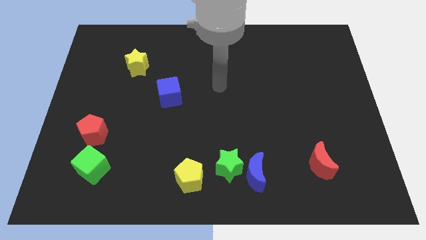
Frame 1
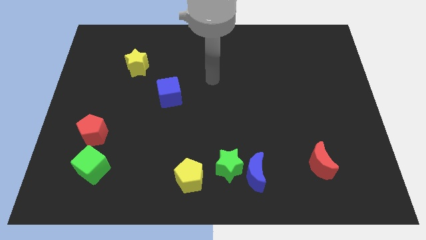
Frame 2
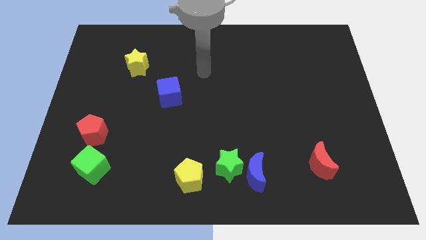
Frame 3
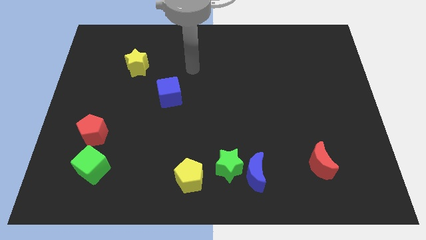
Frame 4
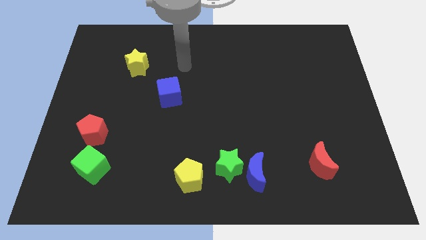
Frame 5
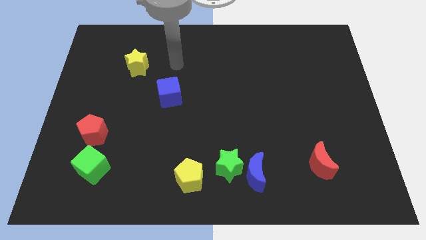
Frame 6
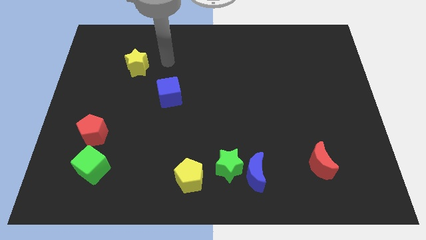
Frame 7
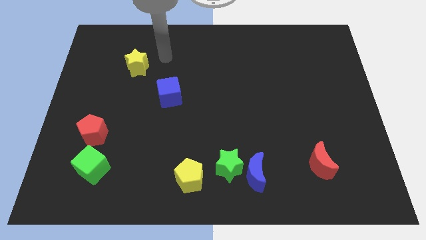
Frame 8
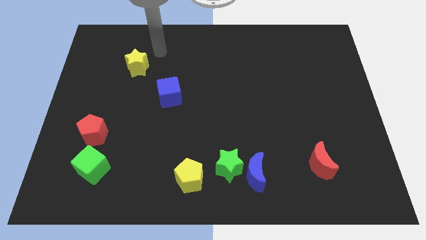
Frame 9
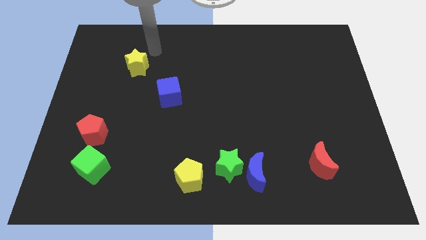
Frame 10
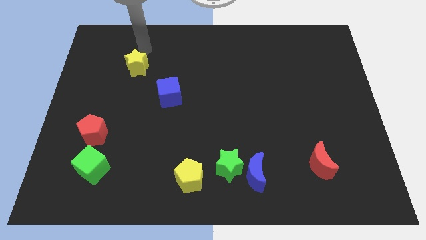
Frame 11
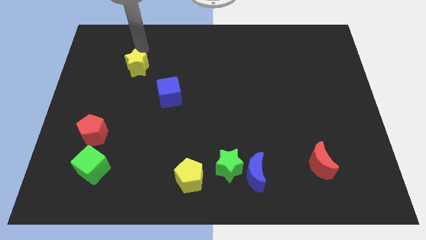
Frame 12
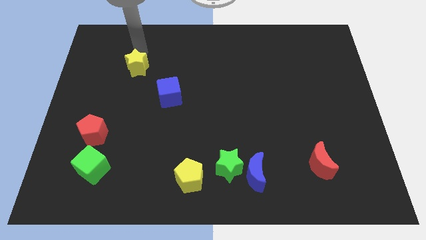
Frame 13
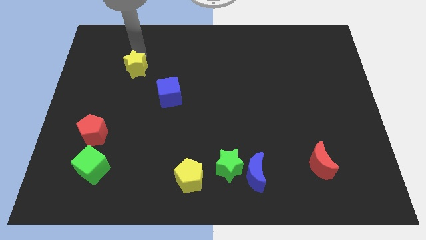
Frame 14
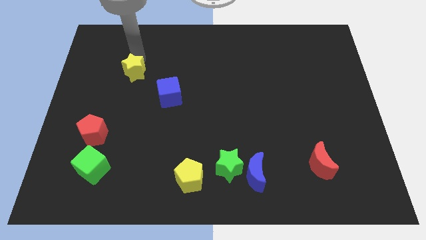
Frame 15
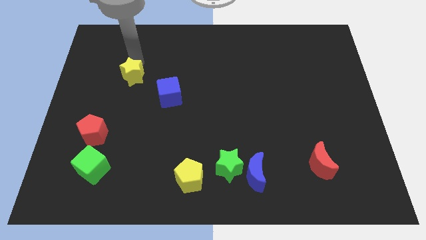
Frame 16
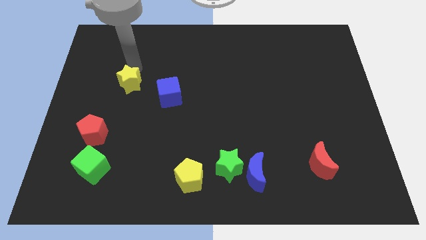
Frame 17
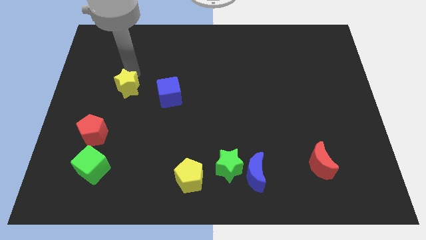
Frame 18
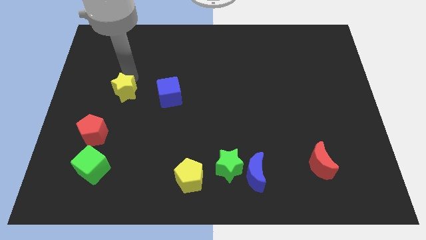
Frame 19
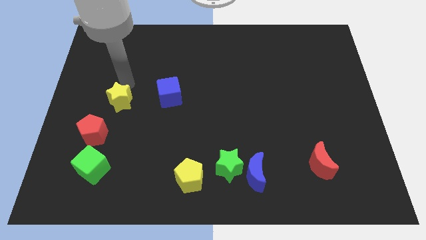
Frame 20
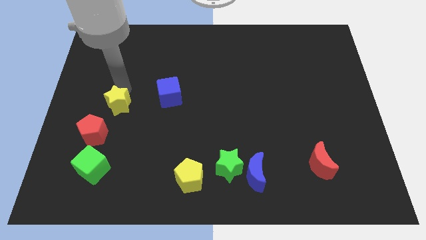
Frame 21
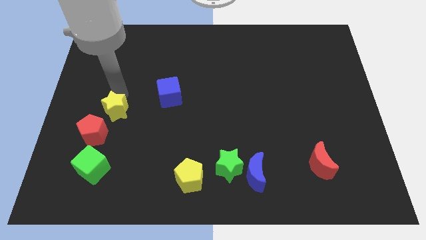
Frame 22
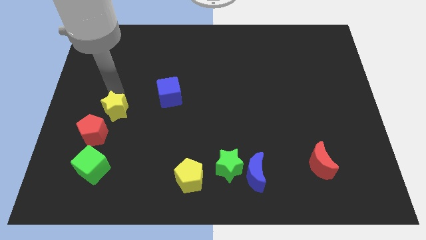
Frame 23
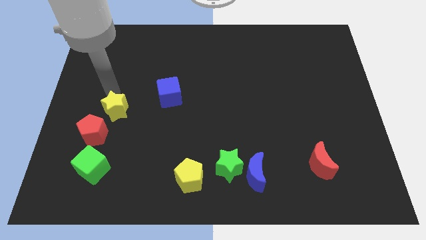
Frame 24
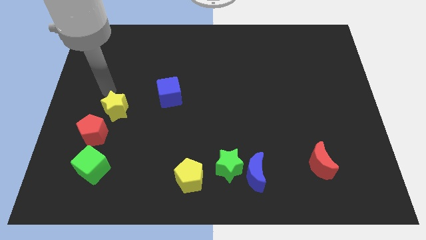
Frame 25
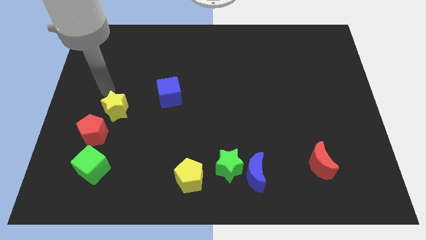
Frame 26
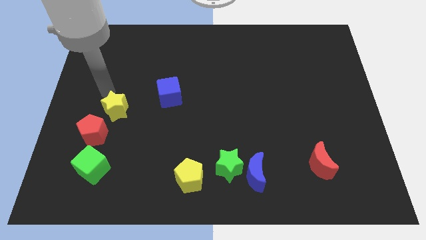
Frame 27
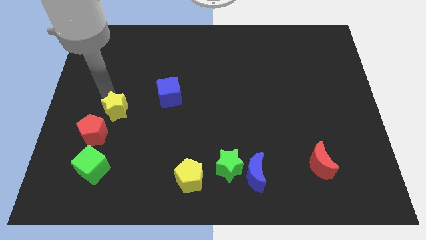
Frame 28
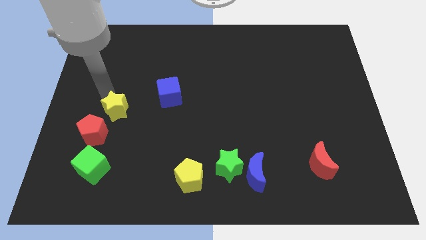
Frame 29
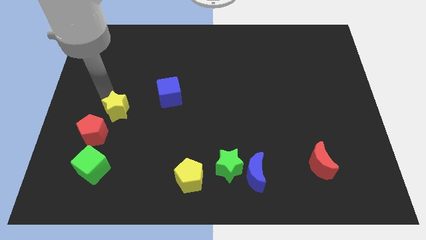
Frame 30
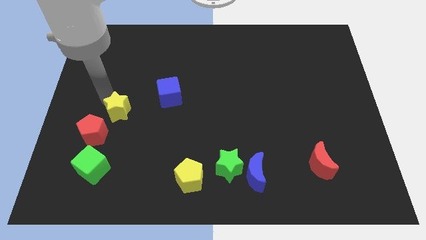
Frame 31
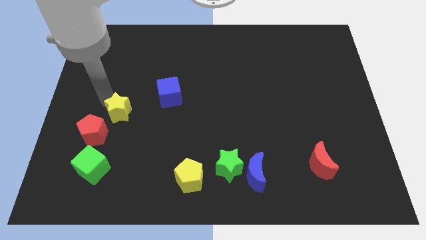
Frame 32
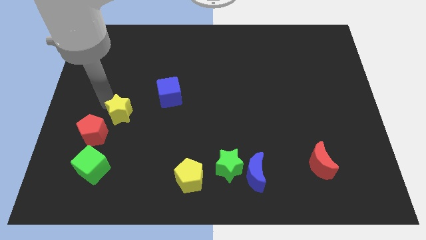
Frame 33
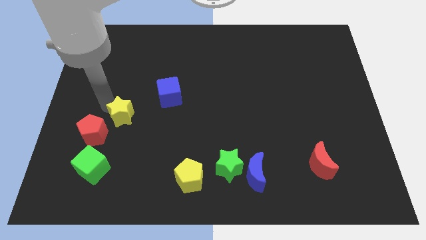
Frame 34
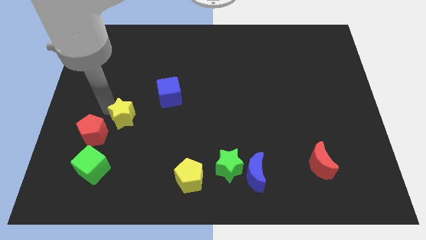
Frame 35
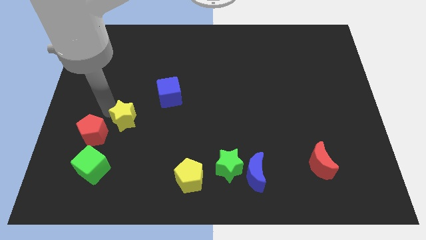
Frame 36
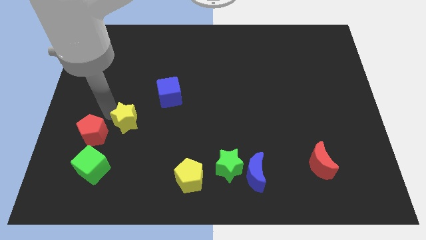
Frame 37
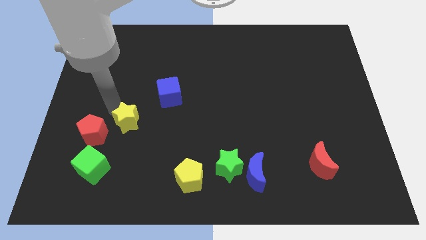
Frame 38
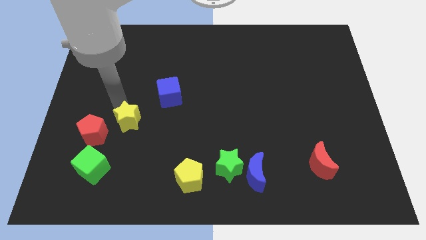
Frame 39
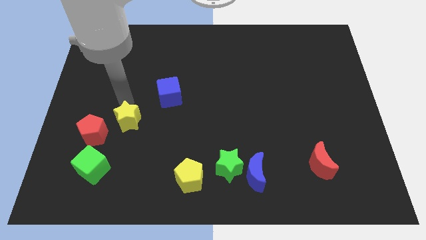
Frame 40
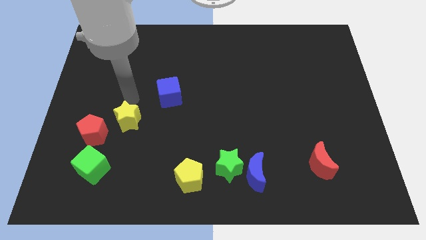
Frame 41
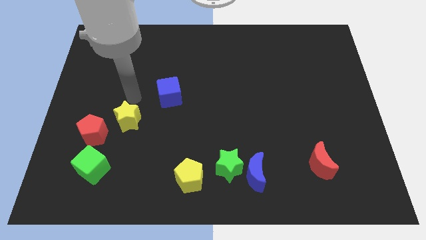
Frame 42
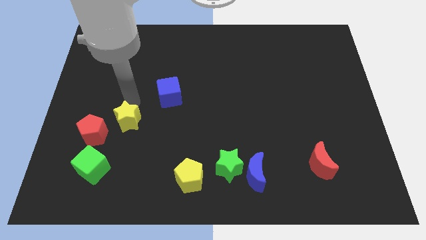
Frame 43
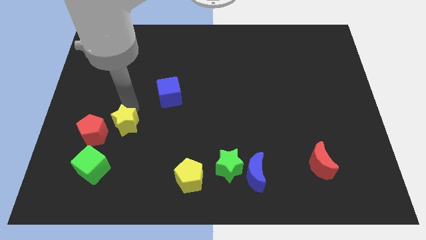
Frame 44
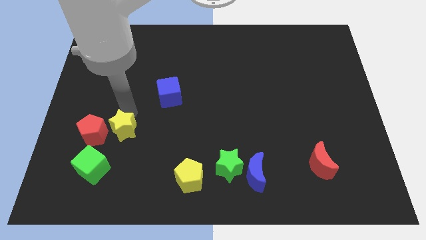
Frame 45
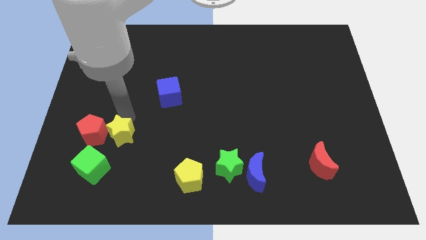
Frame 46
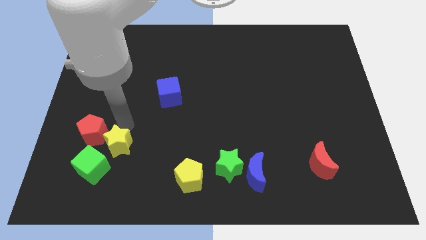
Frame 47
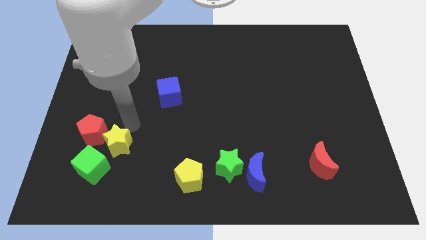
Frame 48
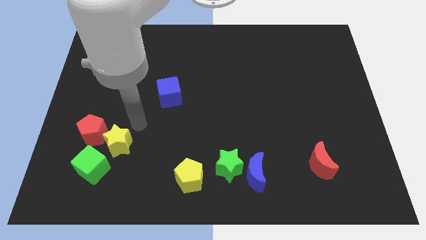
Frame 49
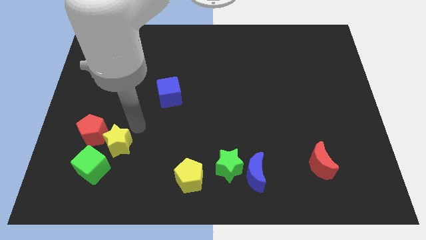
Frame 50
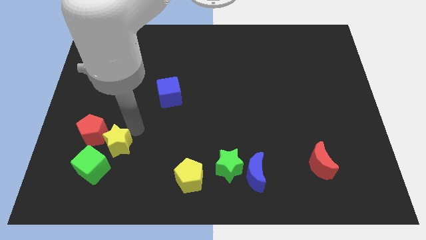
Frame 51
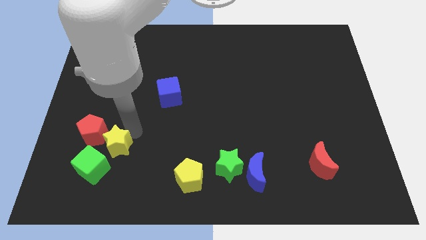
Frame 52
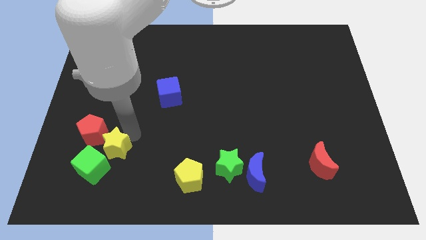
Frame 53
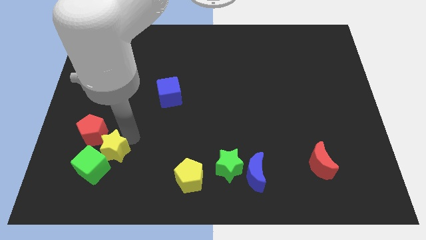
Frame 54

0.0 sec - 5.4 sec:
put the yellow star next to the green cube

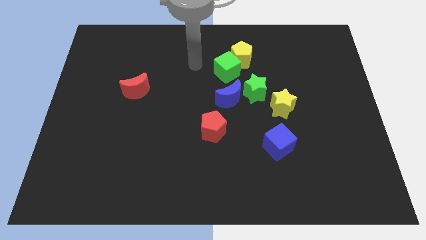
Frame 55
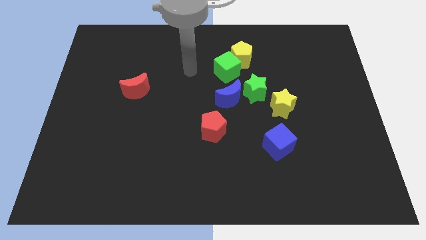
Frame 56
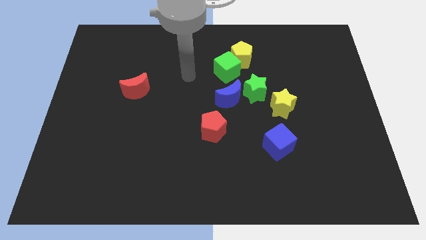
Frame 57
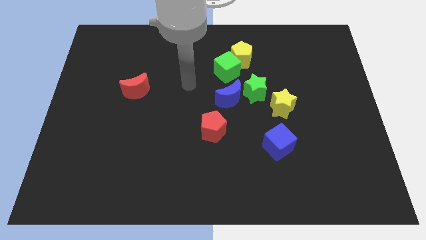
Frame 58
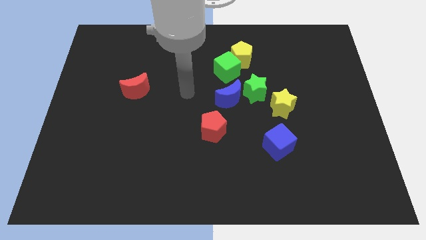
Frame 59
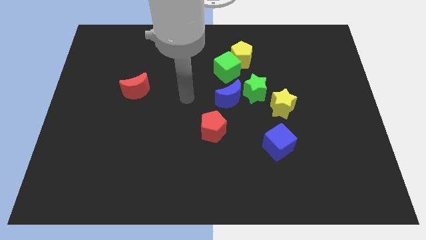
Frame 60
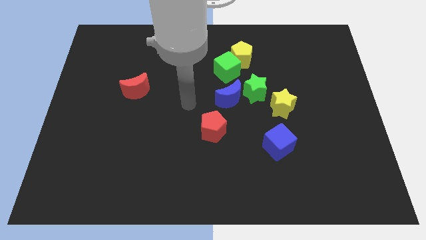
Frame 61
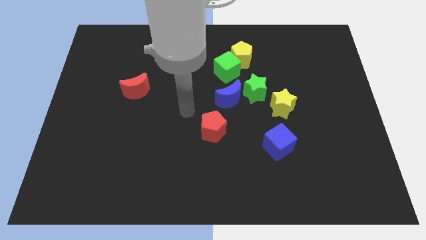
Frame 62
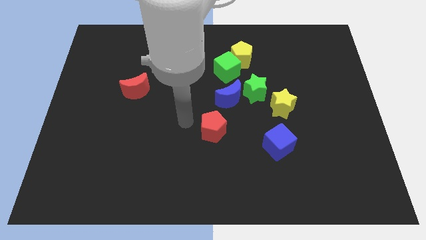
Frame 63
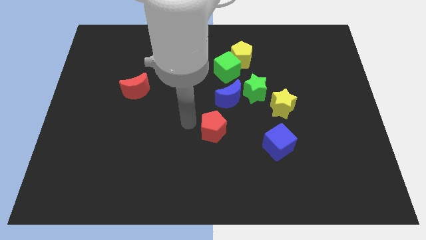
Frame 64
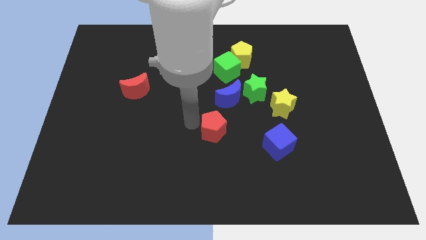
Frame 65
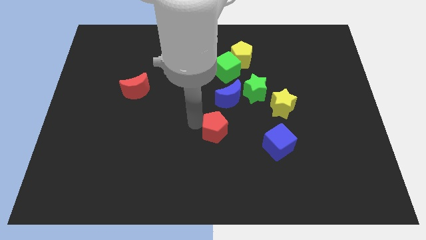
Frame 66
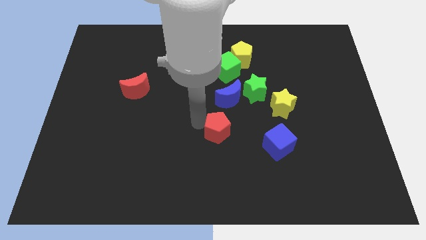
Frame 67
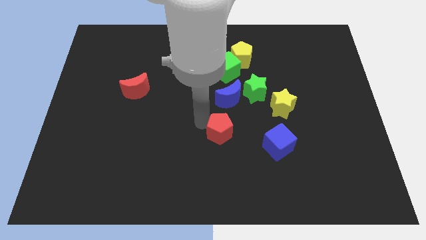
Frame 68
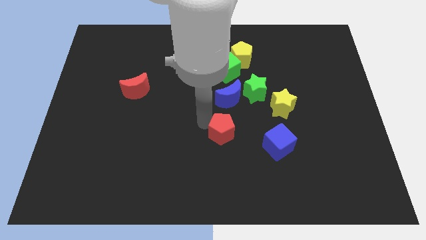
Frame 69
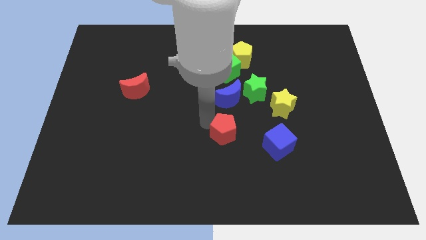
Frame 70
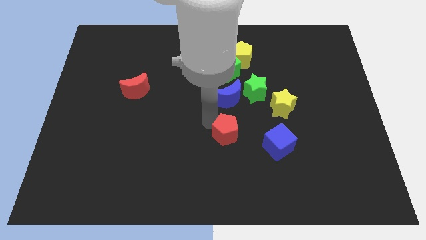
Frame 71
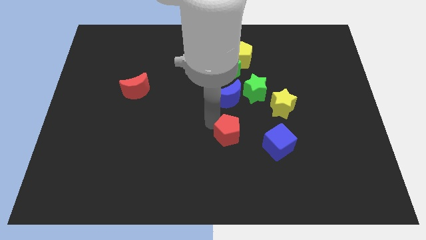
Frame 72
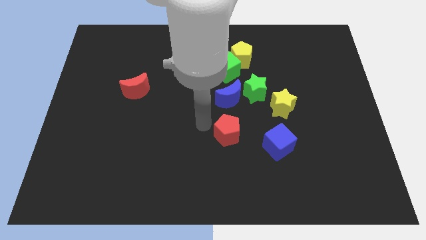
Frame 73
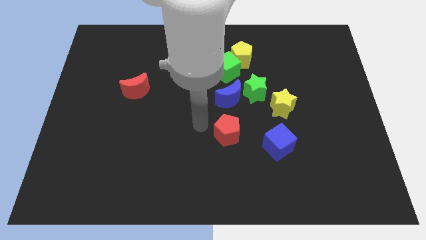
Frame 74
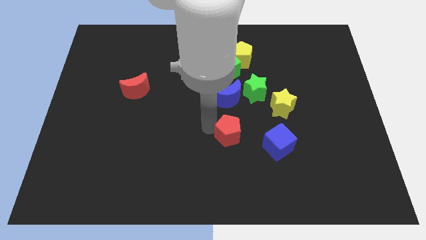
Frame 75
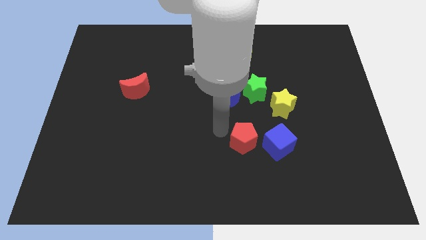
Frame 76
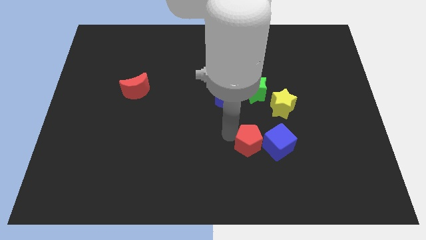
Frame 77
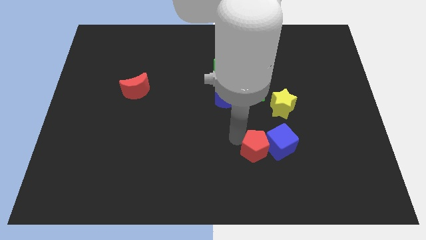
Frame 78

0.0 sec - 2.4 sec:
put the red pentagon towards the blue cube

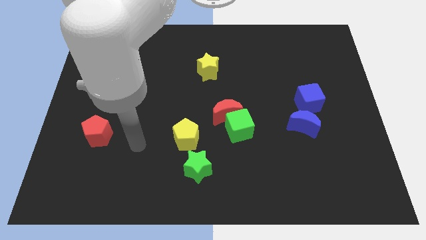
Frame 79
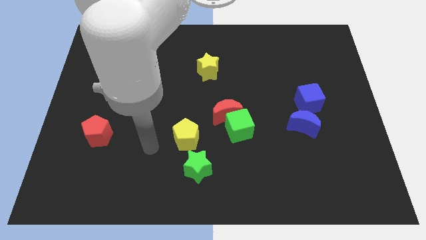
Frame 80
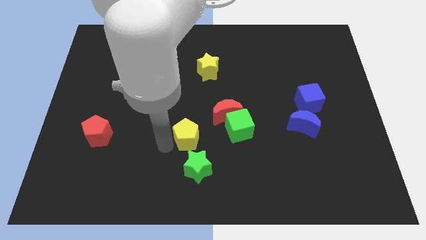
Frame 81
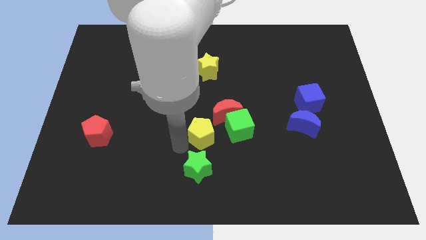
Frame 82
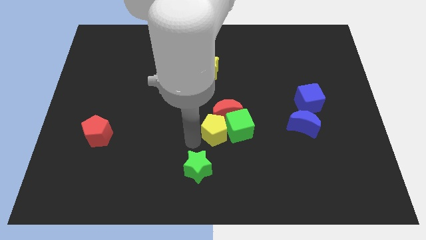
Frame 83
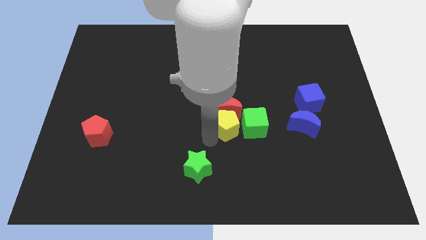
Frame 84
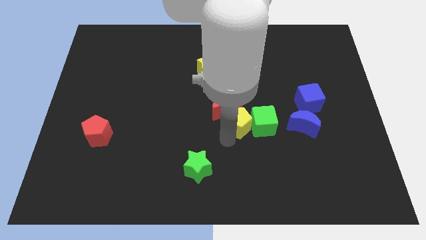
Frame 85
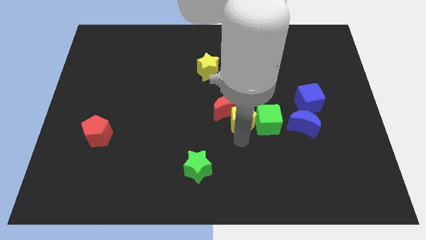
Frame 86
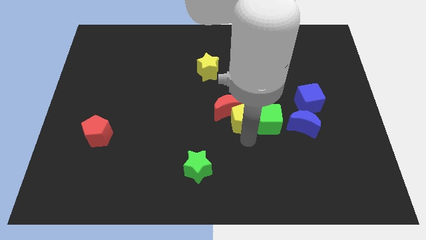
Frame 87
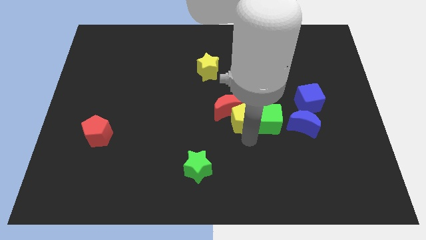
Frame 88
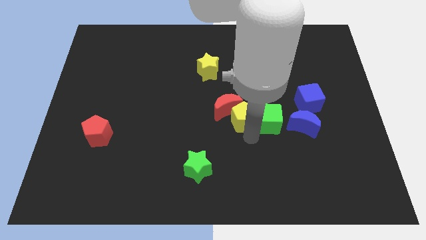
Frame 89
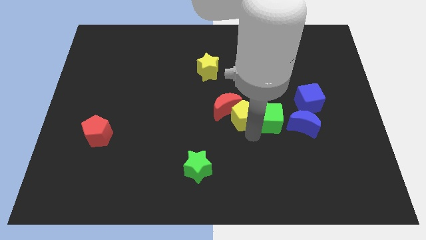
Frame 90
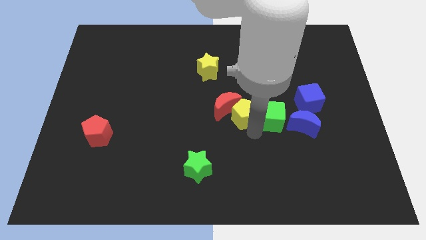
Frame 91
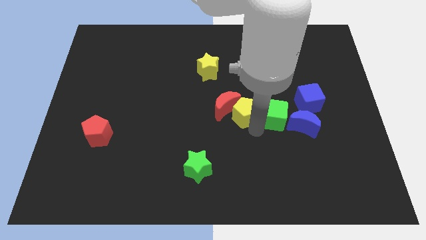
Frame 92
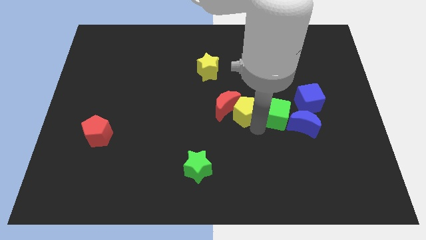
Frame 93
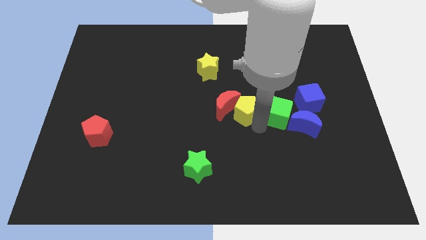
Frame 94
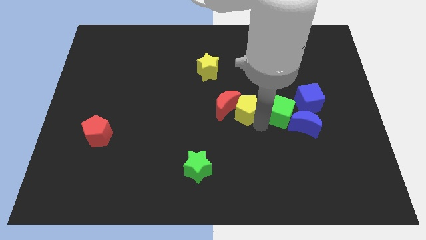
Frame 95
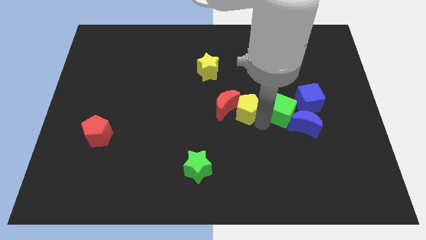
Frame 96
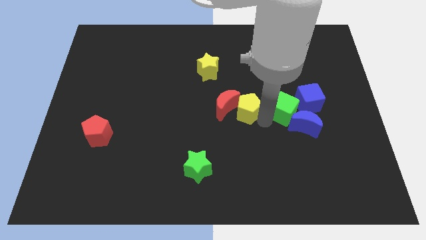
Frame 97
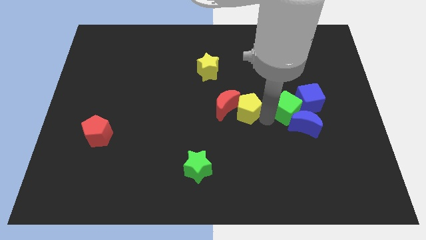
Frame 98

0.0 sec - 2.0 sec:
put the green cube towards the blue cube
